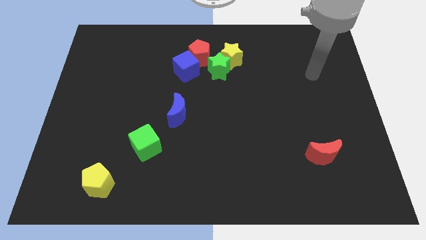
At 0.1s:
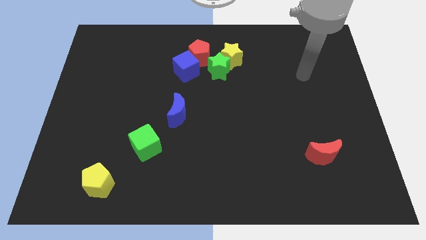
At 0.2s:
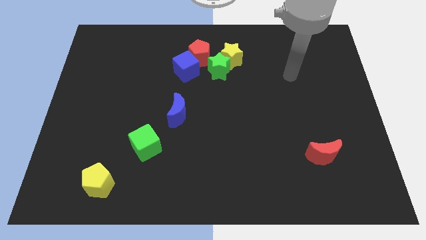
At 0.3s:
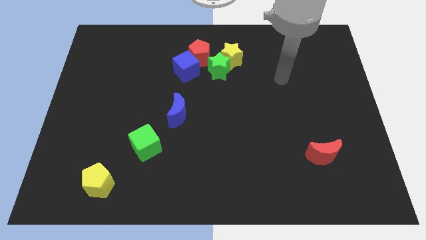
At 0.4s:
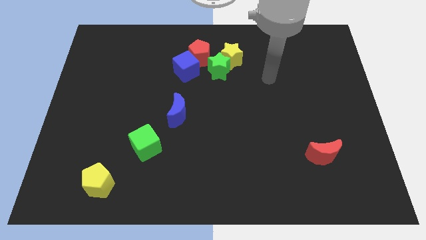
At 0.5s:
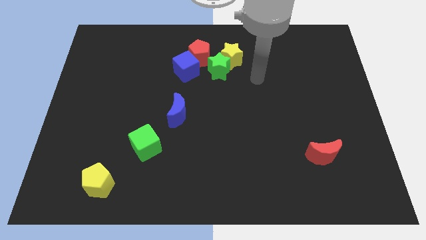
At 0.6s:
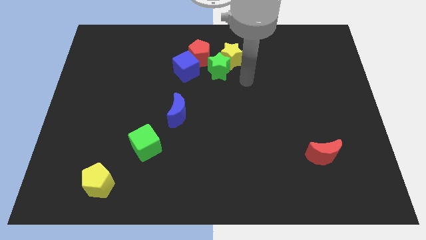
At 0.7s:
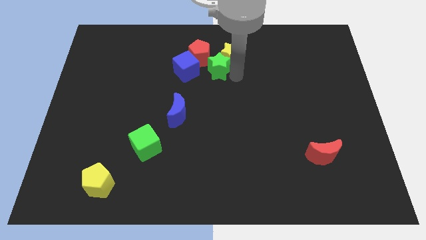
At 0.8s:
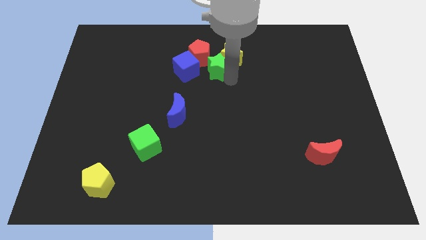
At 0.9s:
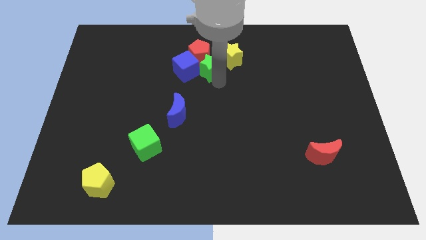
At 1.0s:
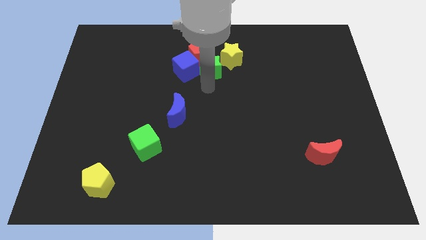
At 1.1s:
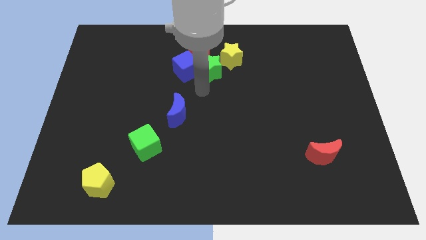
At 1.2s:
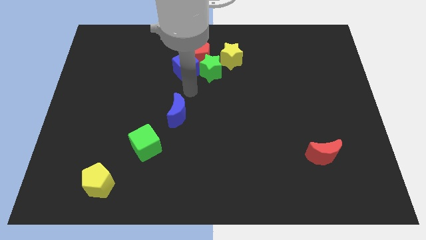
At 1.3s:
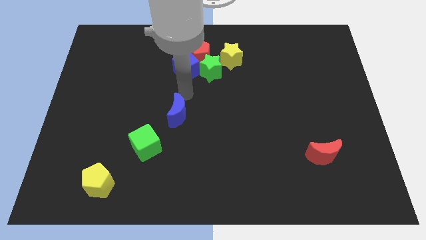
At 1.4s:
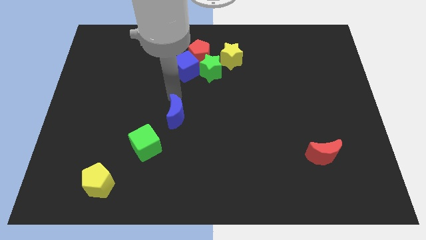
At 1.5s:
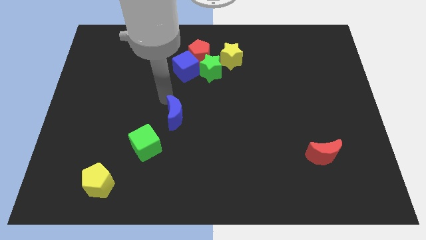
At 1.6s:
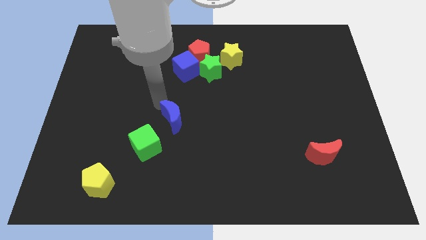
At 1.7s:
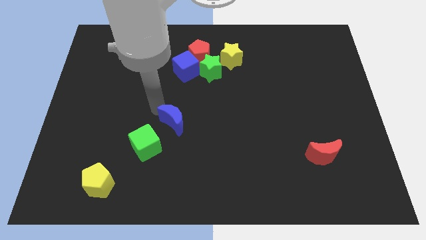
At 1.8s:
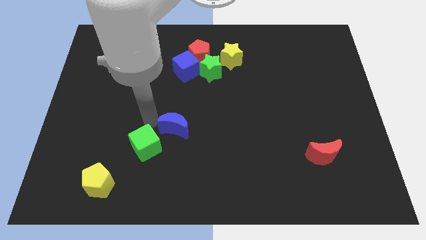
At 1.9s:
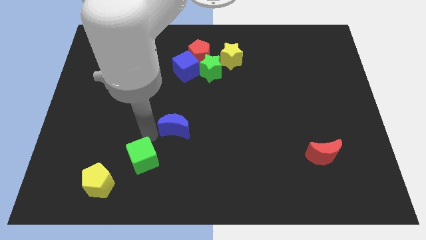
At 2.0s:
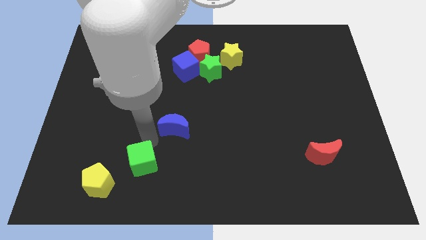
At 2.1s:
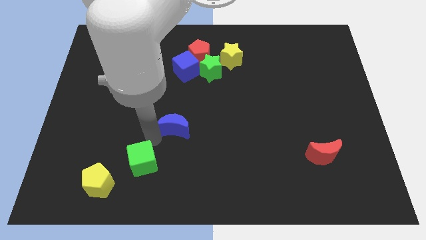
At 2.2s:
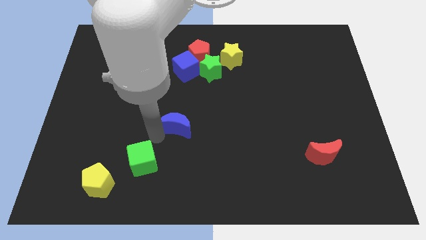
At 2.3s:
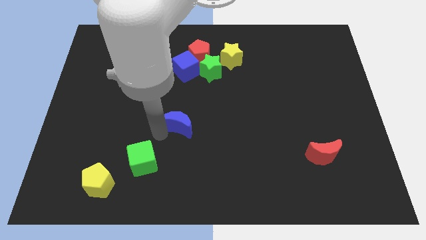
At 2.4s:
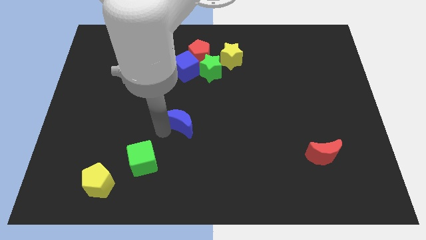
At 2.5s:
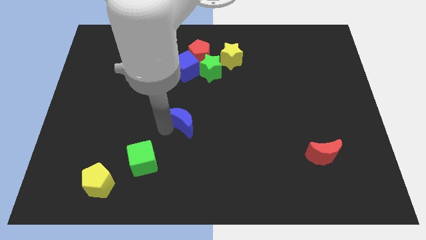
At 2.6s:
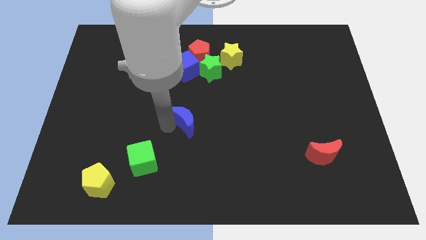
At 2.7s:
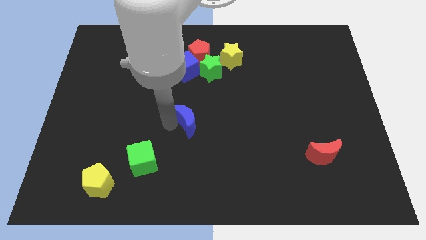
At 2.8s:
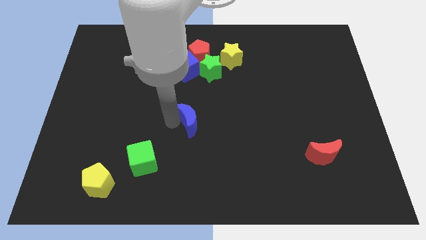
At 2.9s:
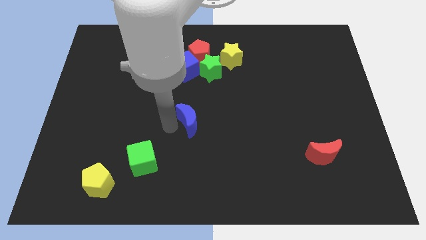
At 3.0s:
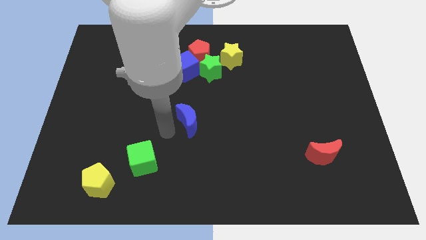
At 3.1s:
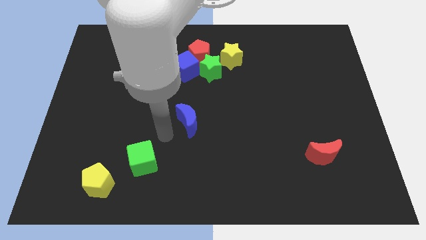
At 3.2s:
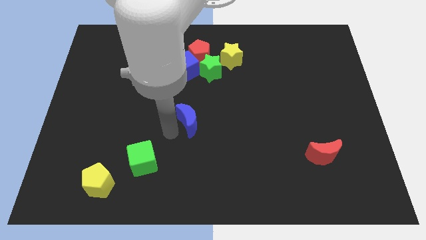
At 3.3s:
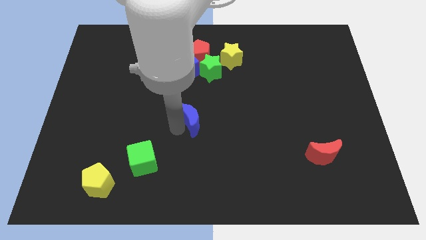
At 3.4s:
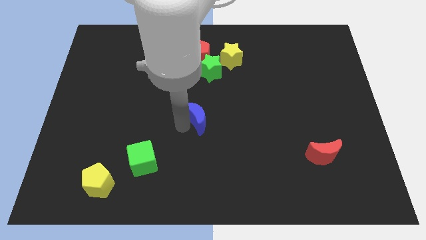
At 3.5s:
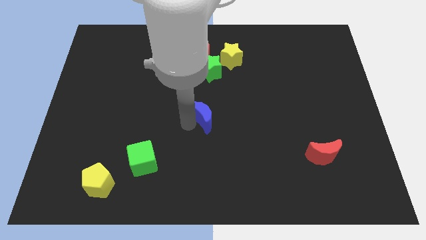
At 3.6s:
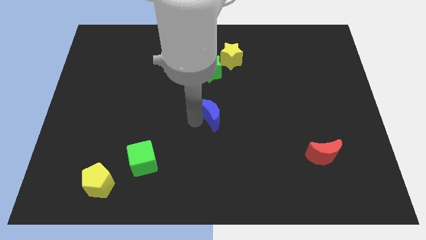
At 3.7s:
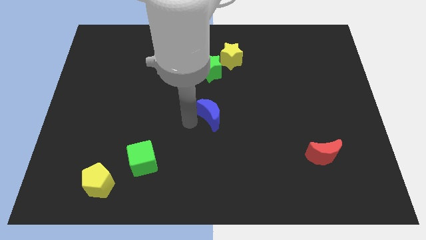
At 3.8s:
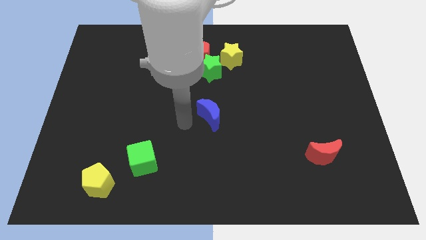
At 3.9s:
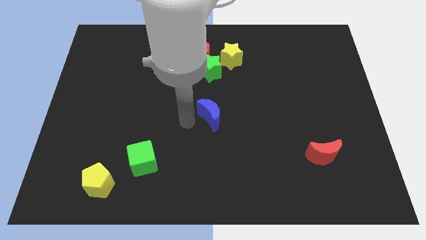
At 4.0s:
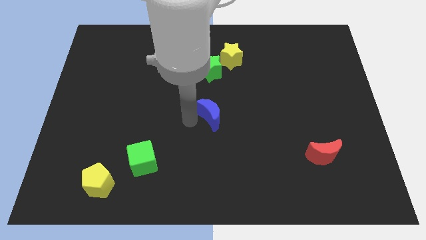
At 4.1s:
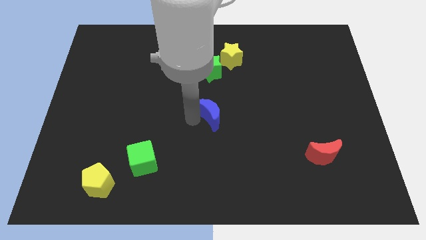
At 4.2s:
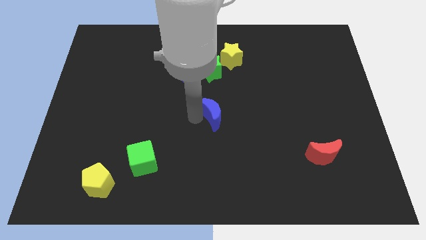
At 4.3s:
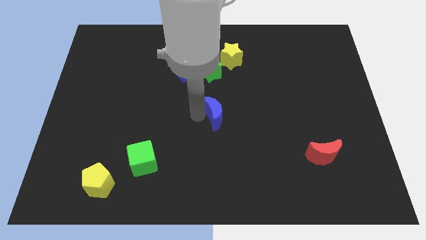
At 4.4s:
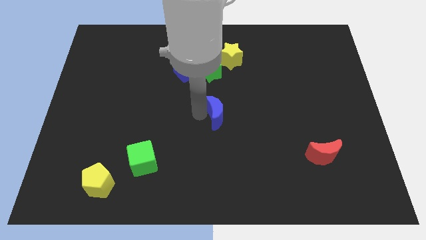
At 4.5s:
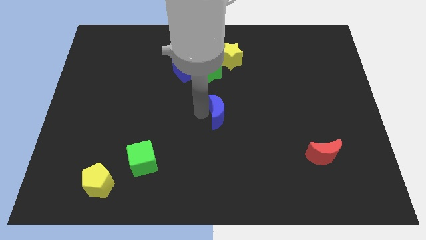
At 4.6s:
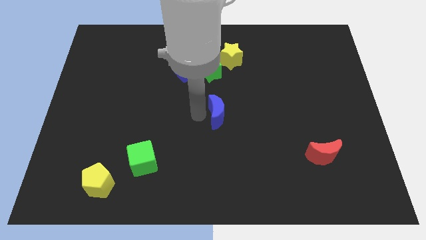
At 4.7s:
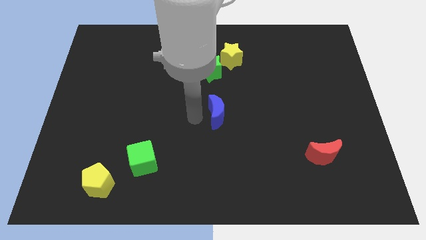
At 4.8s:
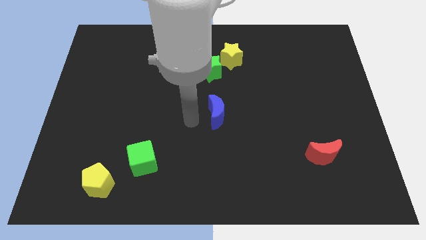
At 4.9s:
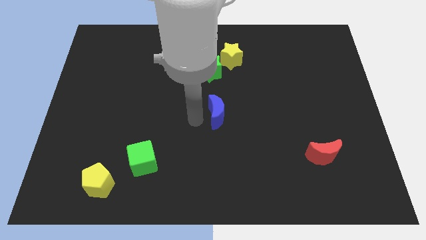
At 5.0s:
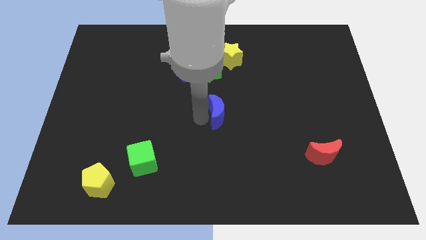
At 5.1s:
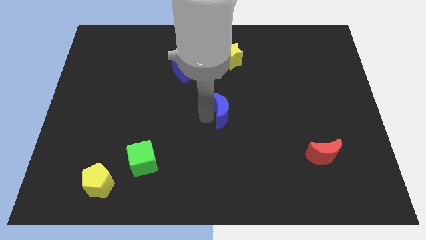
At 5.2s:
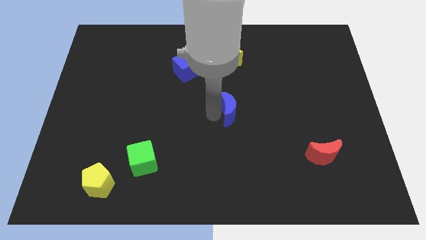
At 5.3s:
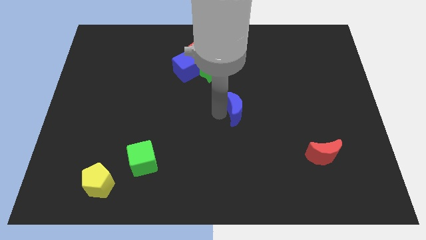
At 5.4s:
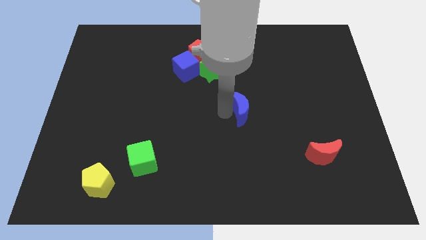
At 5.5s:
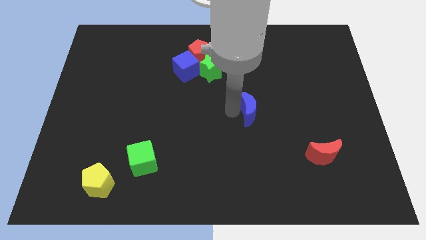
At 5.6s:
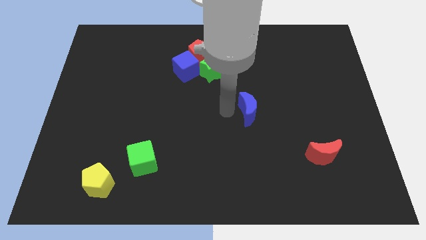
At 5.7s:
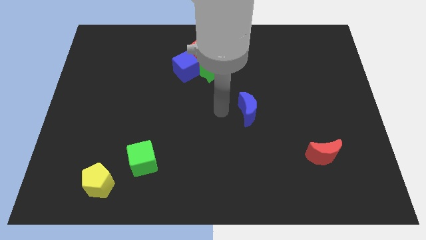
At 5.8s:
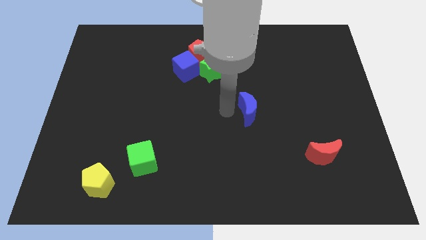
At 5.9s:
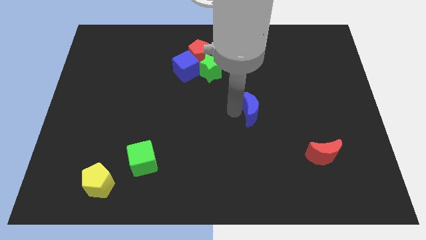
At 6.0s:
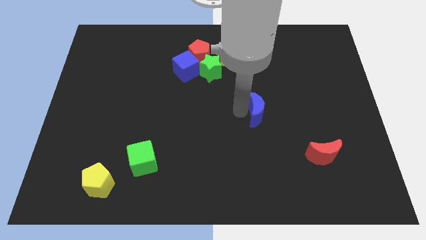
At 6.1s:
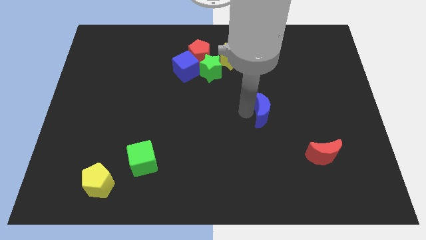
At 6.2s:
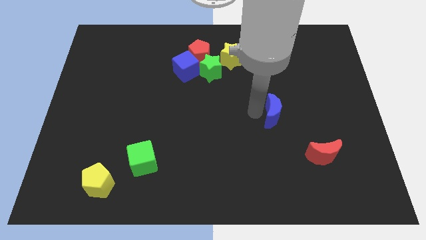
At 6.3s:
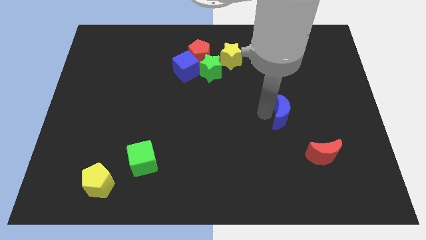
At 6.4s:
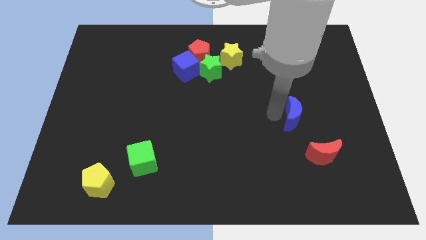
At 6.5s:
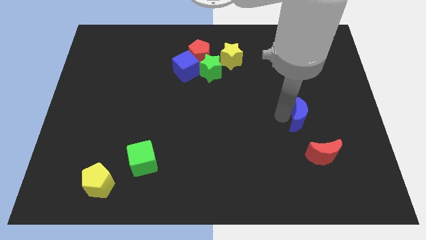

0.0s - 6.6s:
put the blue moon above the red moon

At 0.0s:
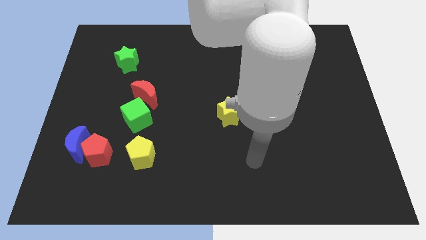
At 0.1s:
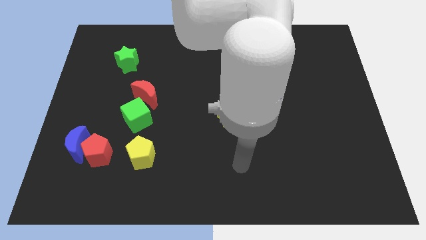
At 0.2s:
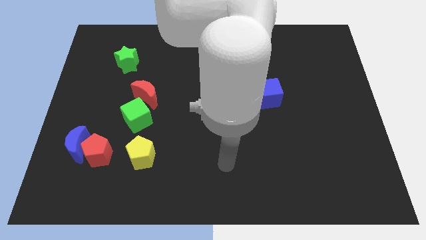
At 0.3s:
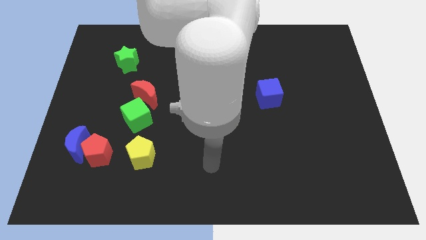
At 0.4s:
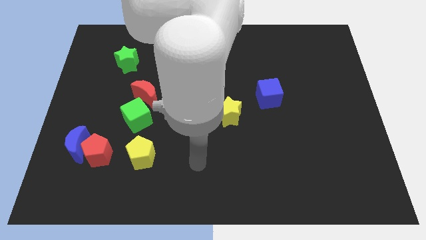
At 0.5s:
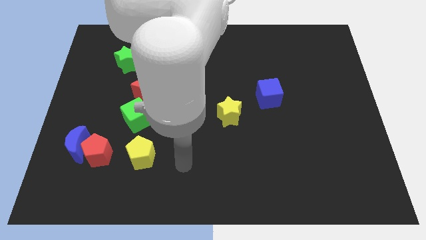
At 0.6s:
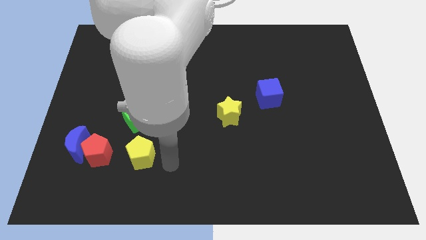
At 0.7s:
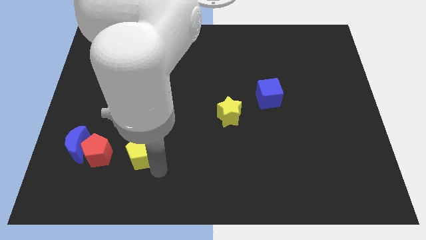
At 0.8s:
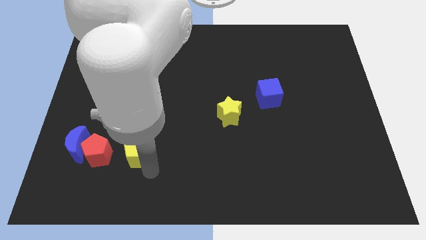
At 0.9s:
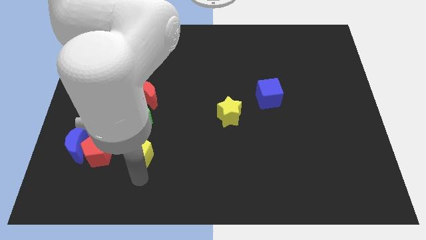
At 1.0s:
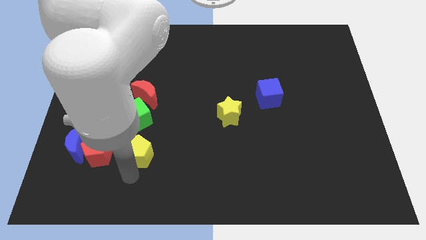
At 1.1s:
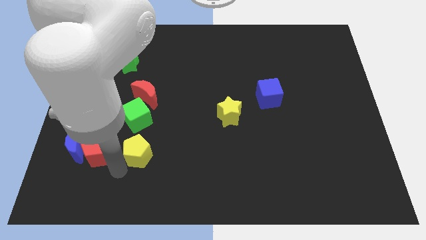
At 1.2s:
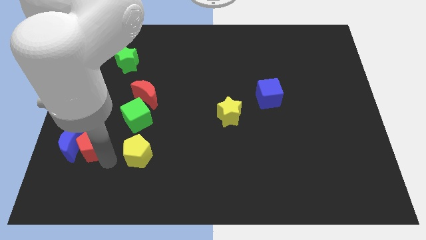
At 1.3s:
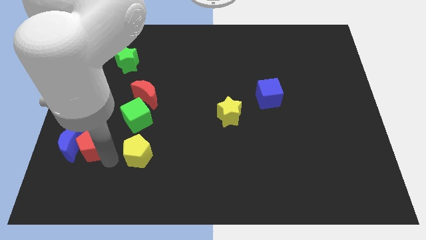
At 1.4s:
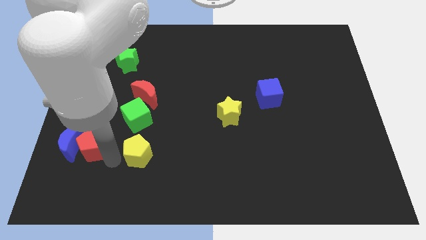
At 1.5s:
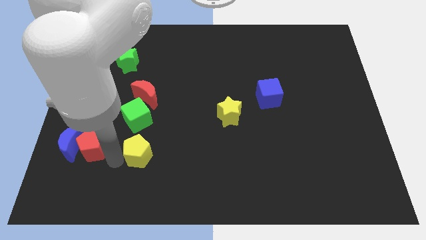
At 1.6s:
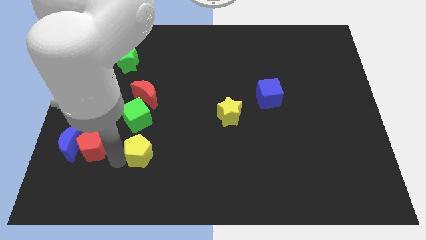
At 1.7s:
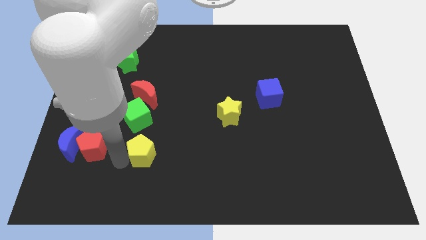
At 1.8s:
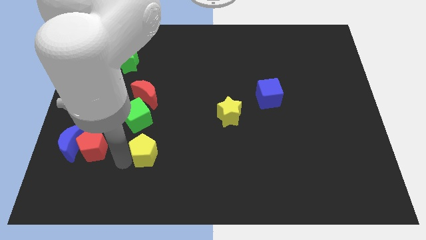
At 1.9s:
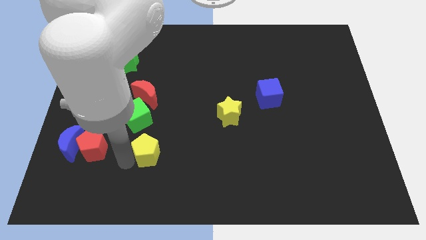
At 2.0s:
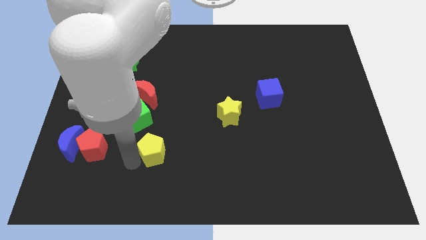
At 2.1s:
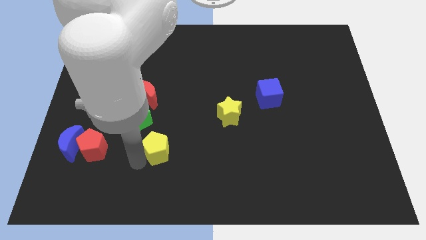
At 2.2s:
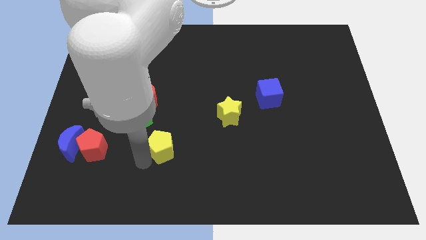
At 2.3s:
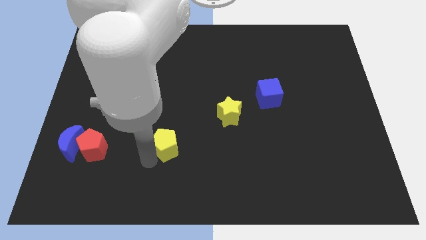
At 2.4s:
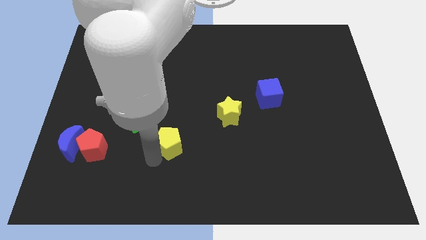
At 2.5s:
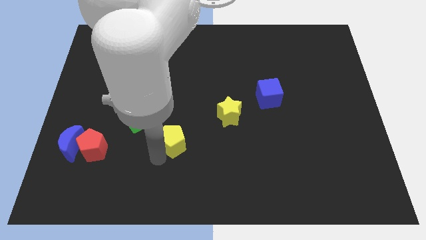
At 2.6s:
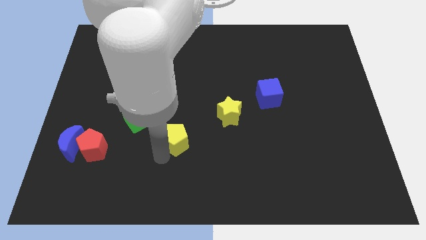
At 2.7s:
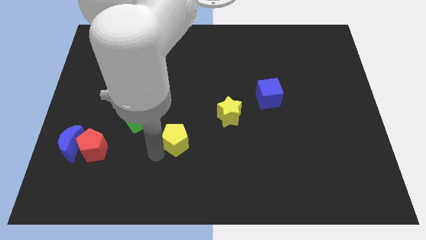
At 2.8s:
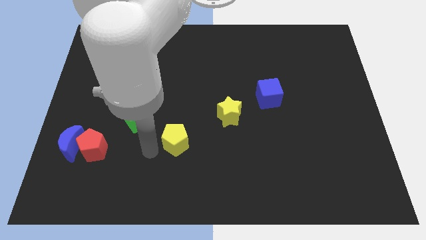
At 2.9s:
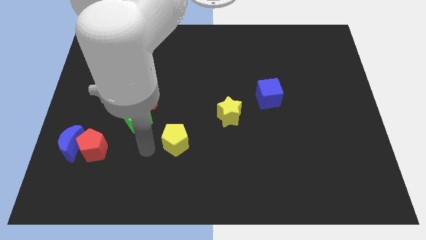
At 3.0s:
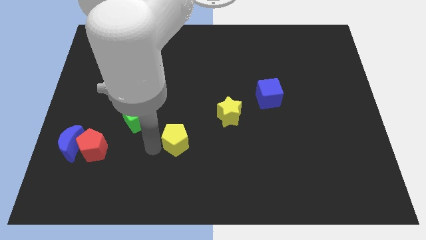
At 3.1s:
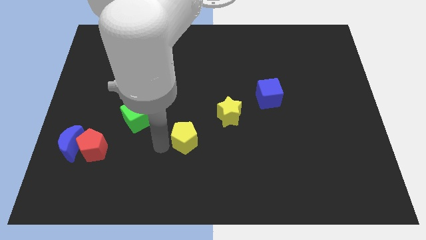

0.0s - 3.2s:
move the yellow pentagon to the bottom left of the yellow star
